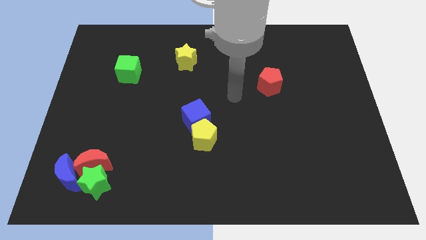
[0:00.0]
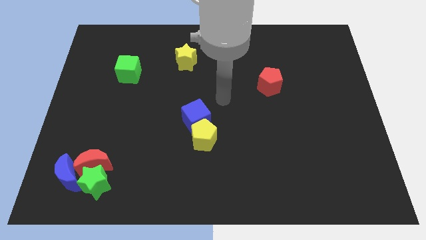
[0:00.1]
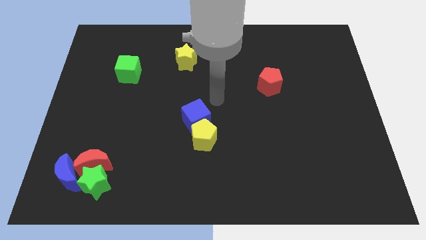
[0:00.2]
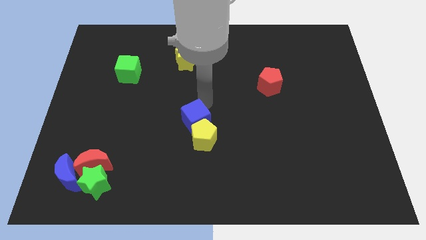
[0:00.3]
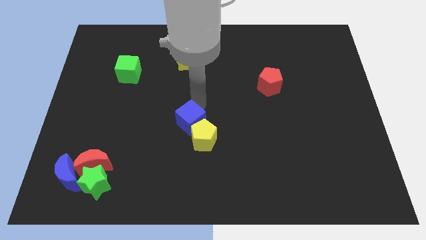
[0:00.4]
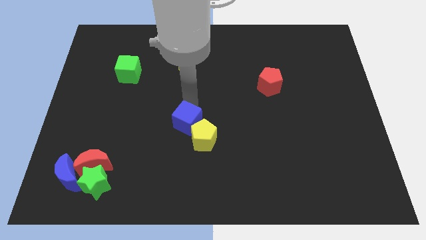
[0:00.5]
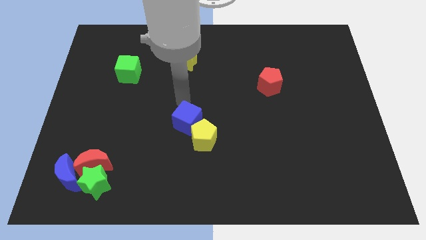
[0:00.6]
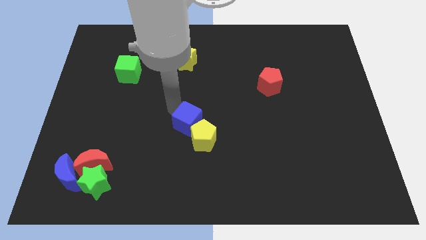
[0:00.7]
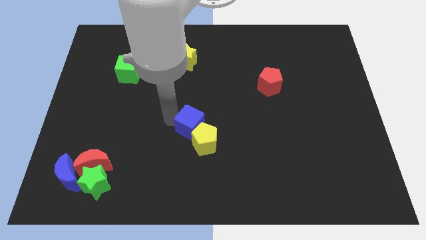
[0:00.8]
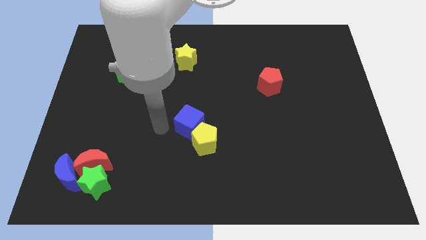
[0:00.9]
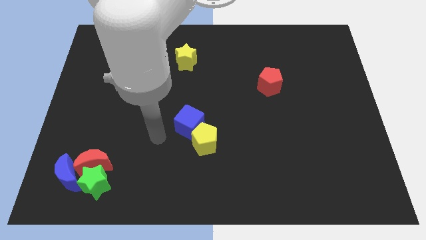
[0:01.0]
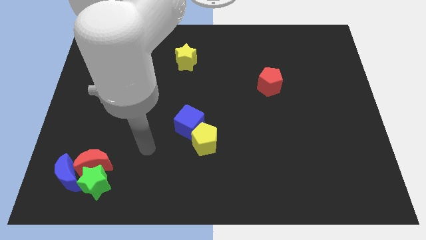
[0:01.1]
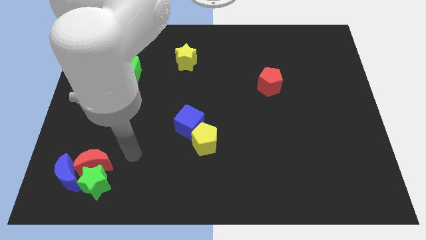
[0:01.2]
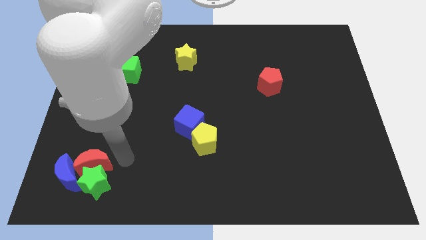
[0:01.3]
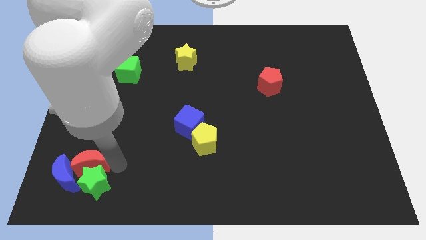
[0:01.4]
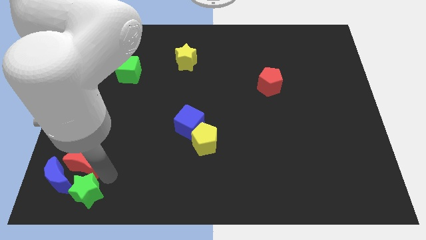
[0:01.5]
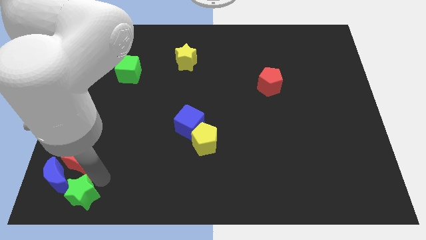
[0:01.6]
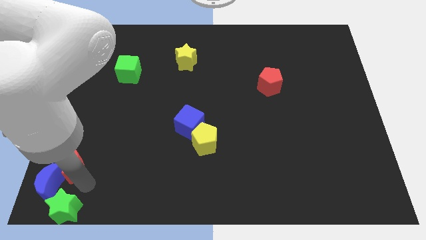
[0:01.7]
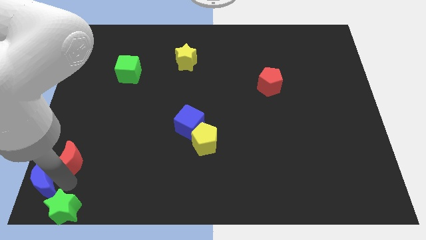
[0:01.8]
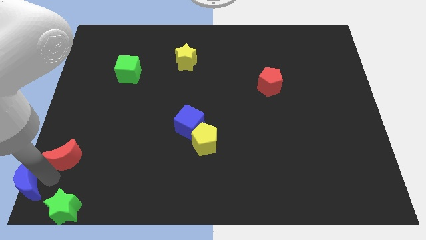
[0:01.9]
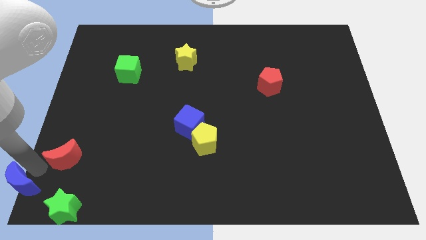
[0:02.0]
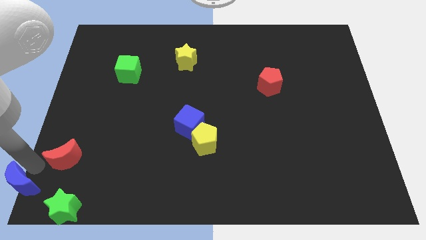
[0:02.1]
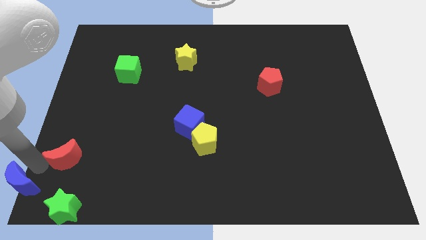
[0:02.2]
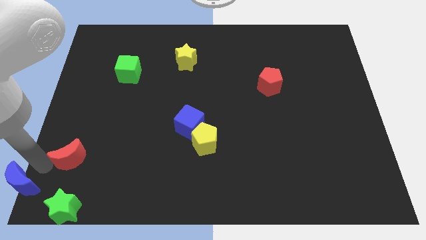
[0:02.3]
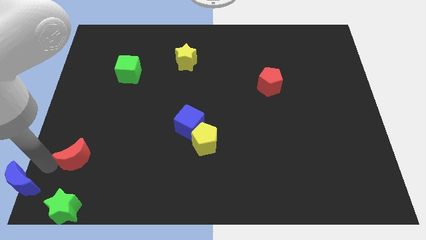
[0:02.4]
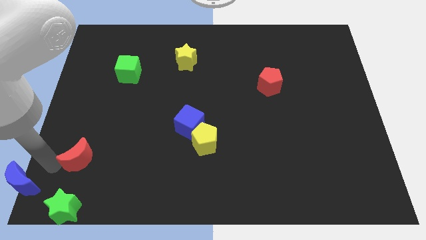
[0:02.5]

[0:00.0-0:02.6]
move the red moon away from the green star and blue moon

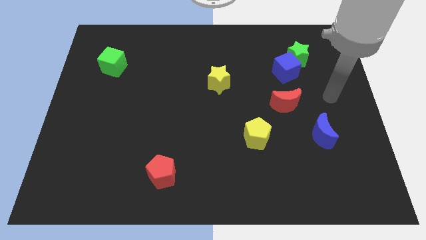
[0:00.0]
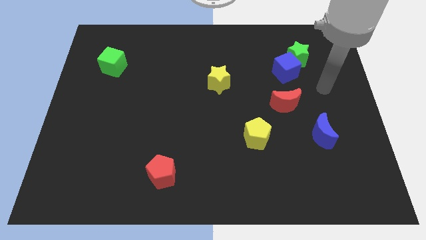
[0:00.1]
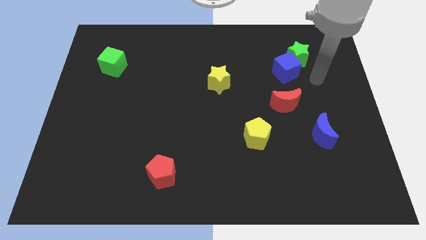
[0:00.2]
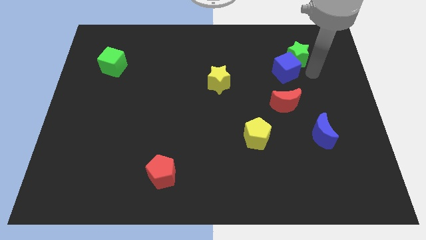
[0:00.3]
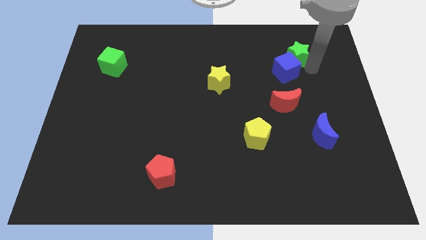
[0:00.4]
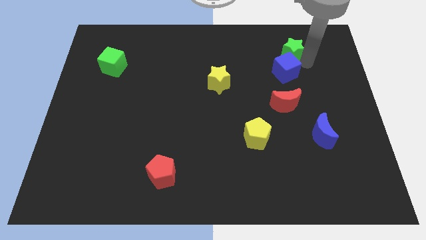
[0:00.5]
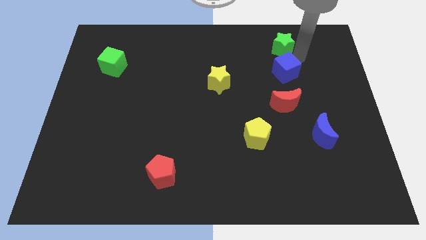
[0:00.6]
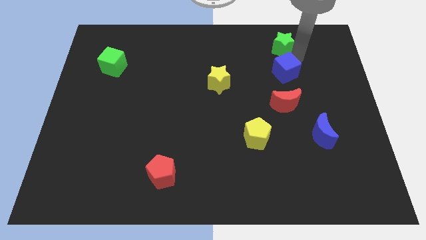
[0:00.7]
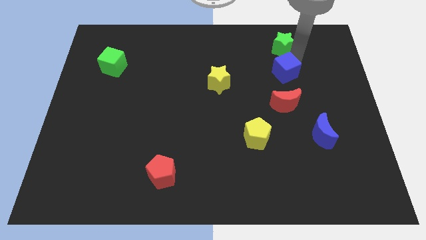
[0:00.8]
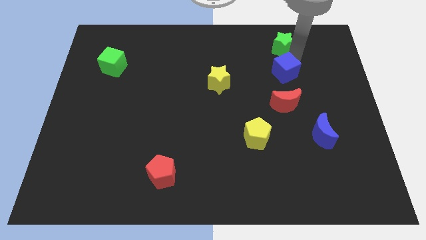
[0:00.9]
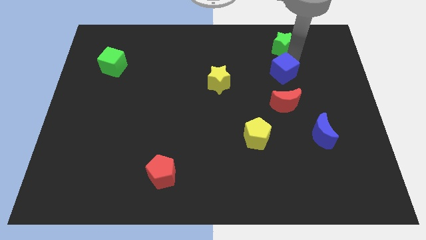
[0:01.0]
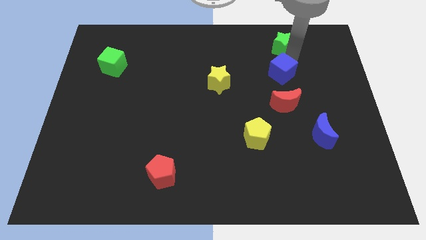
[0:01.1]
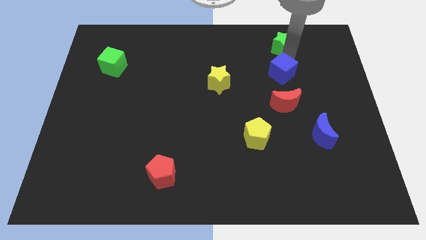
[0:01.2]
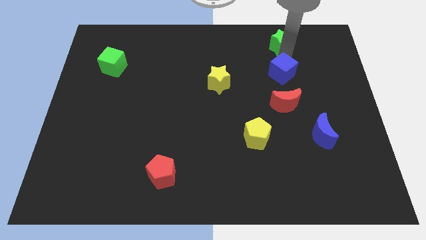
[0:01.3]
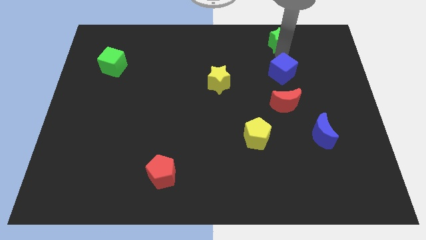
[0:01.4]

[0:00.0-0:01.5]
move the blue cube away from the green star

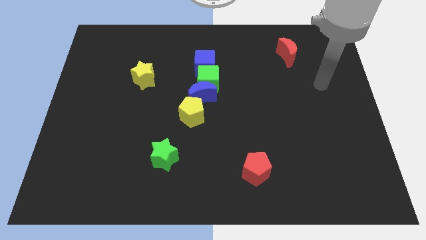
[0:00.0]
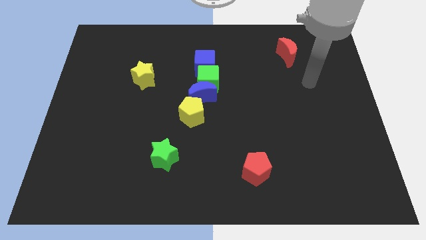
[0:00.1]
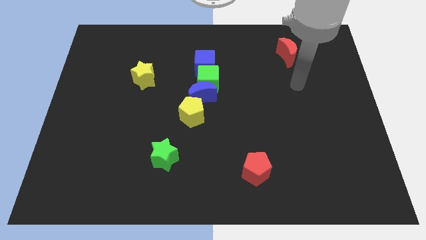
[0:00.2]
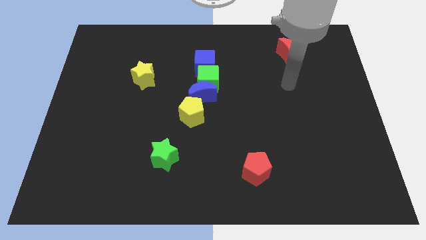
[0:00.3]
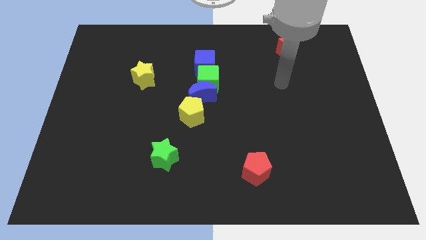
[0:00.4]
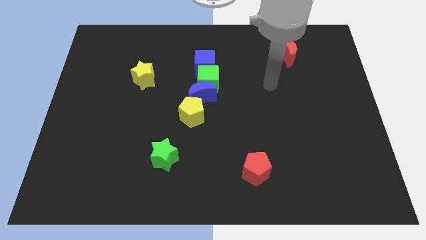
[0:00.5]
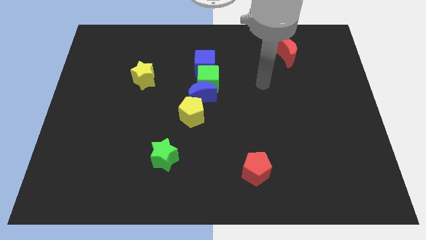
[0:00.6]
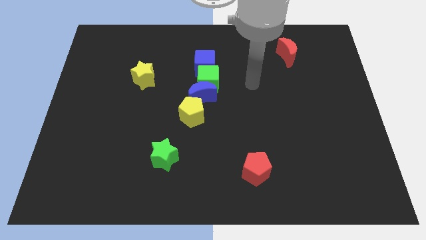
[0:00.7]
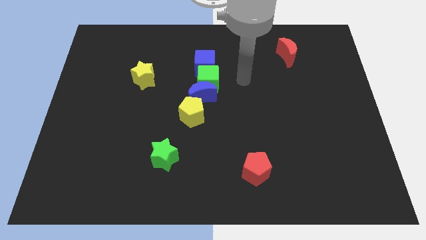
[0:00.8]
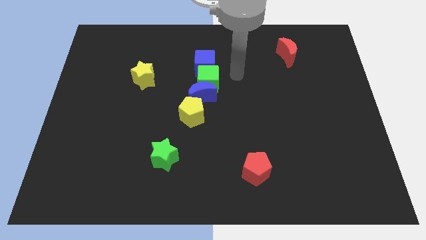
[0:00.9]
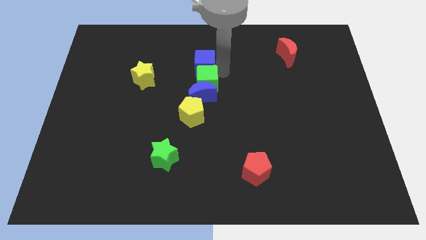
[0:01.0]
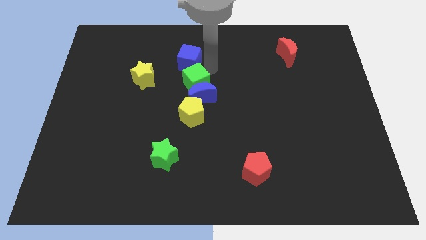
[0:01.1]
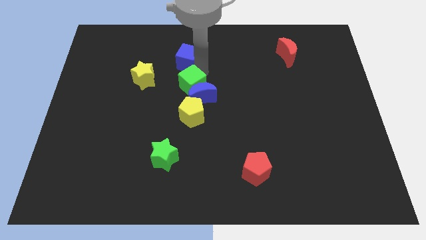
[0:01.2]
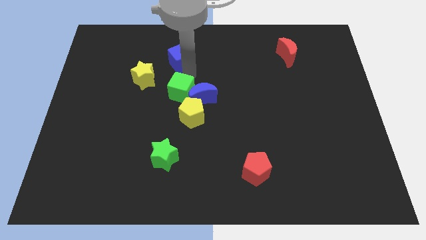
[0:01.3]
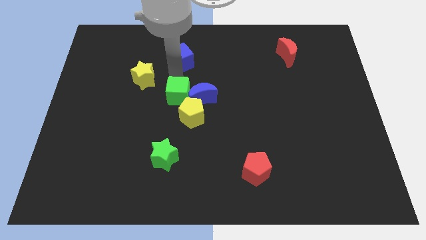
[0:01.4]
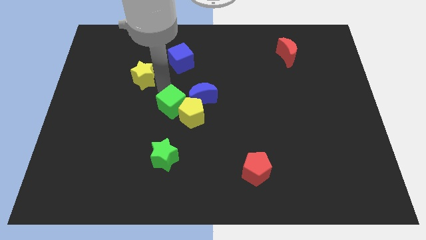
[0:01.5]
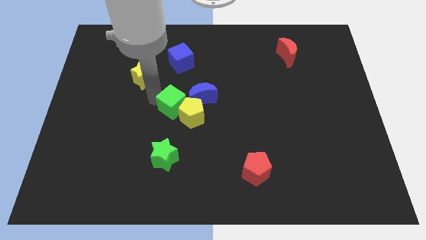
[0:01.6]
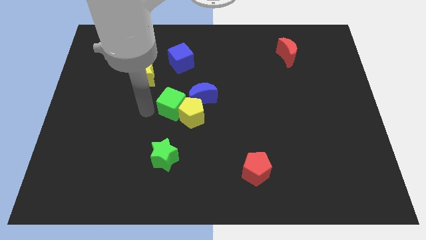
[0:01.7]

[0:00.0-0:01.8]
move the green cube away from the blue moon and blue cube

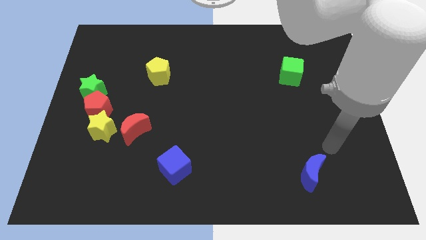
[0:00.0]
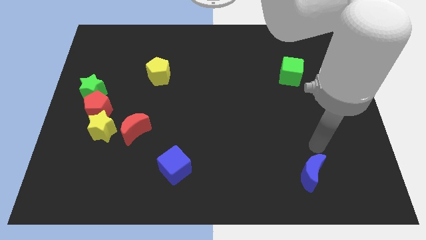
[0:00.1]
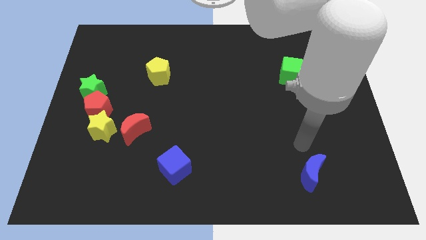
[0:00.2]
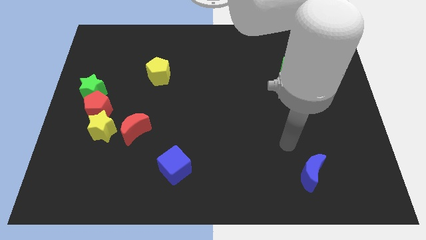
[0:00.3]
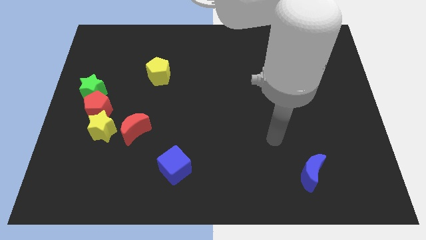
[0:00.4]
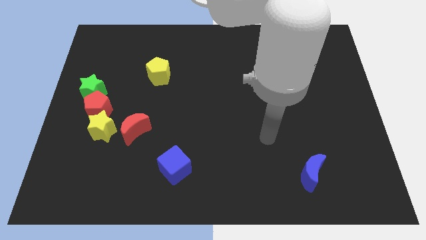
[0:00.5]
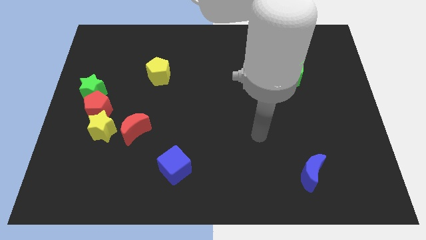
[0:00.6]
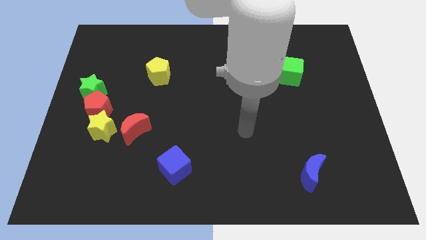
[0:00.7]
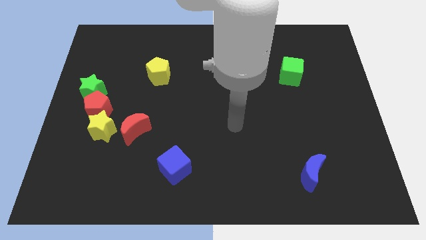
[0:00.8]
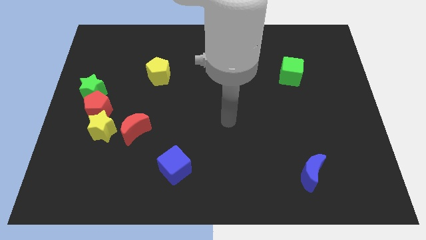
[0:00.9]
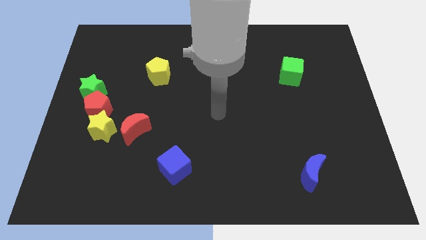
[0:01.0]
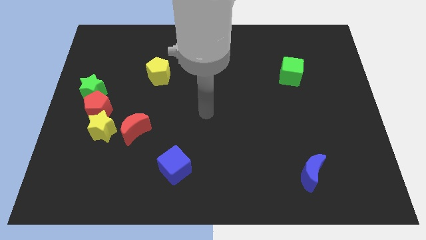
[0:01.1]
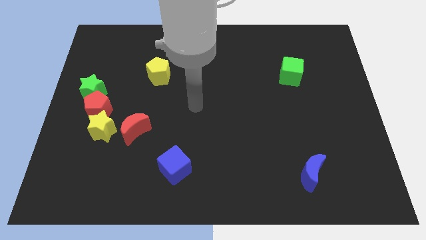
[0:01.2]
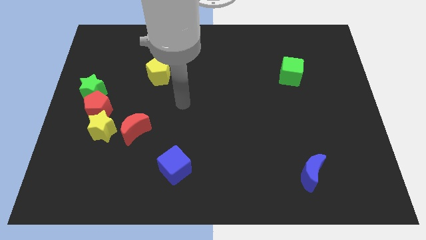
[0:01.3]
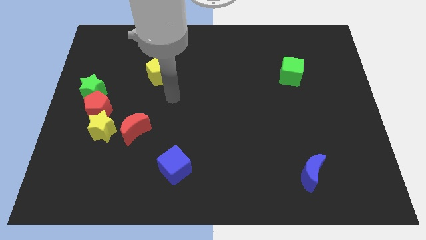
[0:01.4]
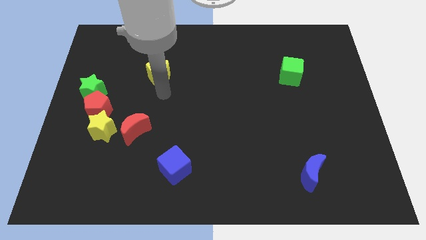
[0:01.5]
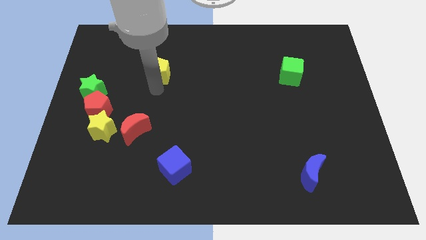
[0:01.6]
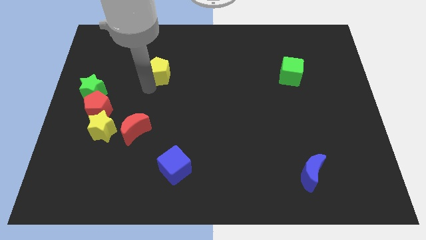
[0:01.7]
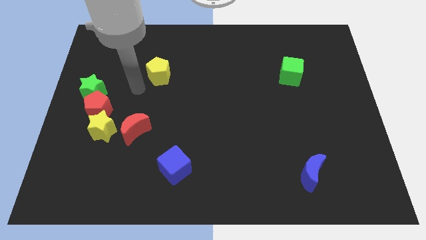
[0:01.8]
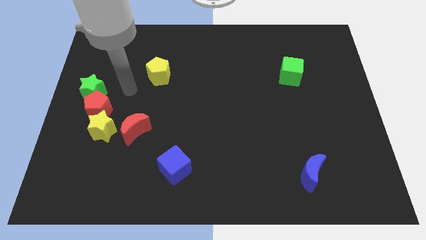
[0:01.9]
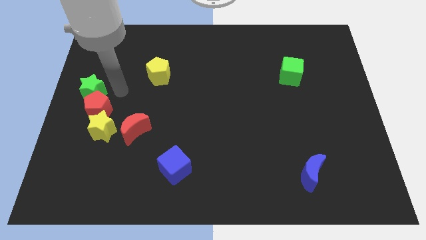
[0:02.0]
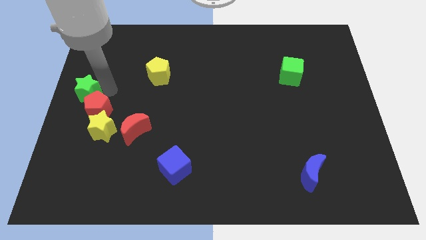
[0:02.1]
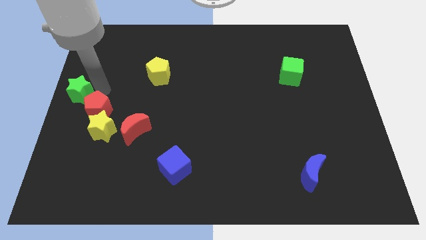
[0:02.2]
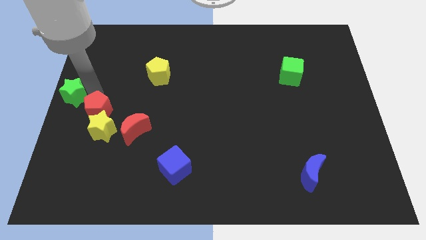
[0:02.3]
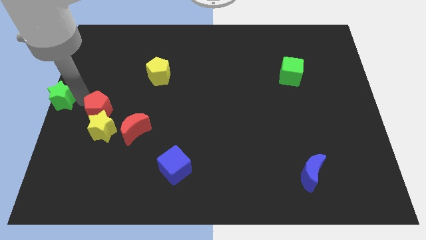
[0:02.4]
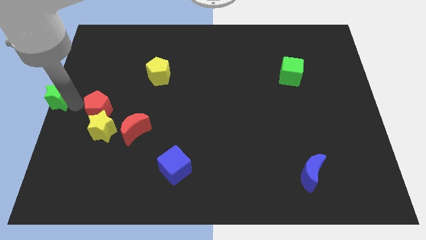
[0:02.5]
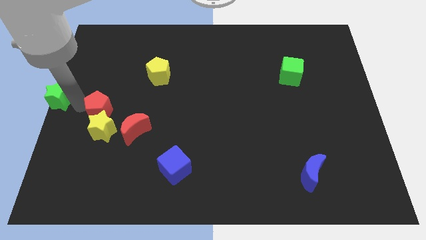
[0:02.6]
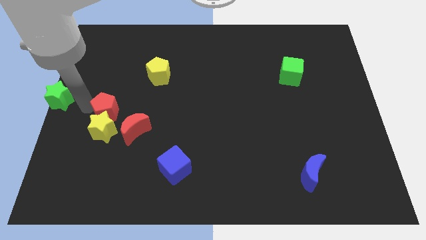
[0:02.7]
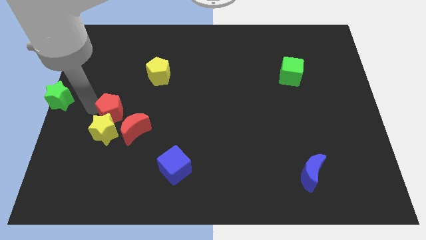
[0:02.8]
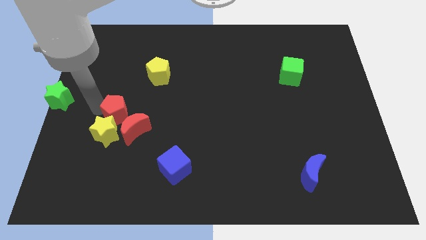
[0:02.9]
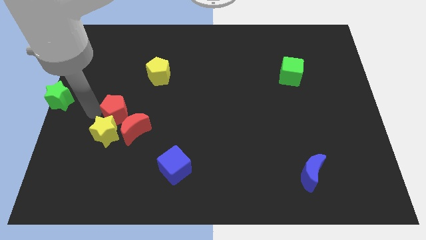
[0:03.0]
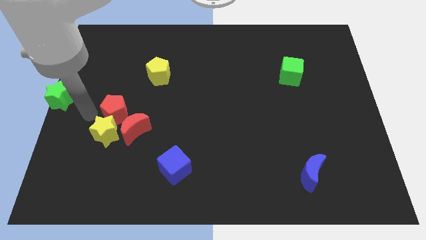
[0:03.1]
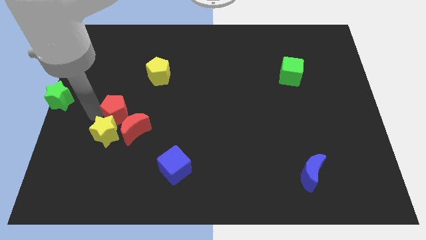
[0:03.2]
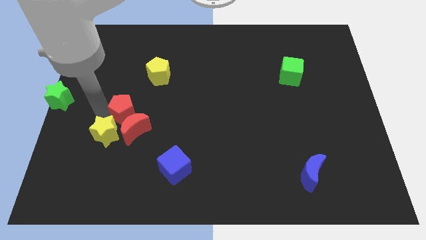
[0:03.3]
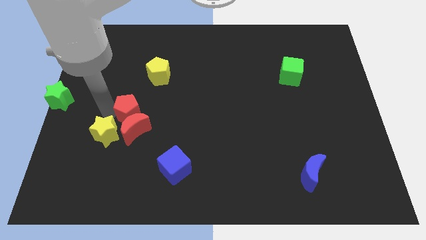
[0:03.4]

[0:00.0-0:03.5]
move the red pentagon away from the yellow star and green star
